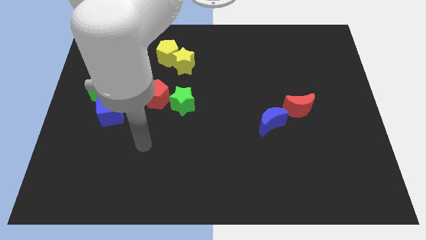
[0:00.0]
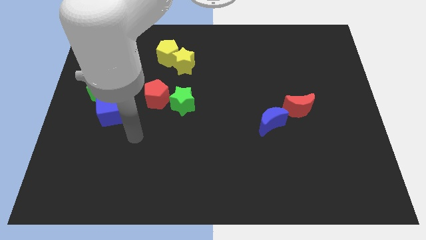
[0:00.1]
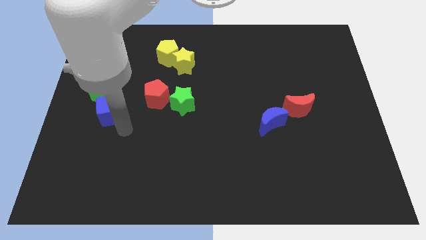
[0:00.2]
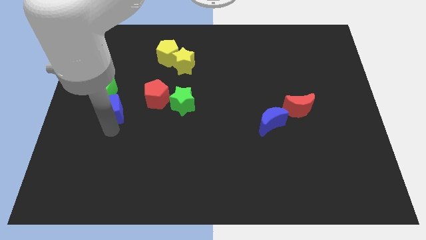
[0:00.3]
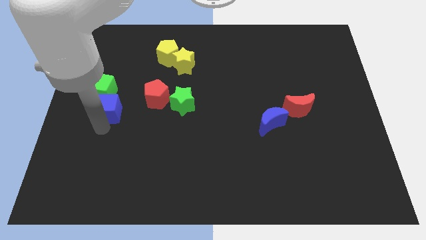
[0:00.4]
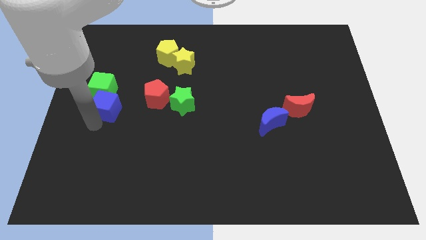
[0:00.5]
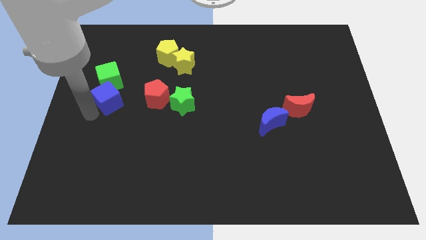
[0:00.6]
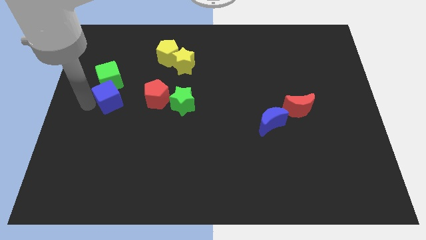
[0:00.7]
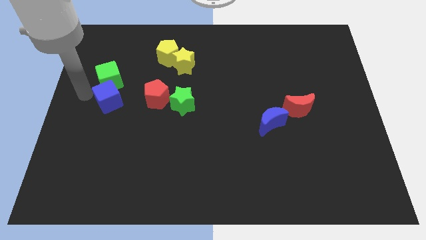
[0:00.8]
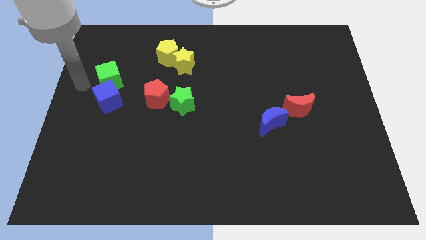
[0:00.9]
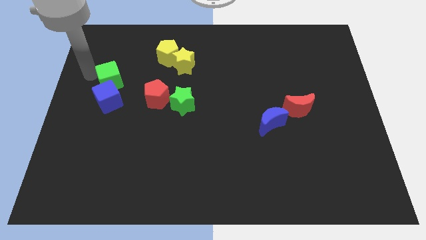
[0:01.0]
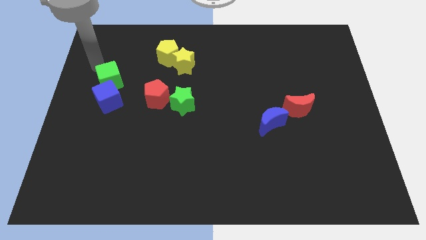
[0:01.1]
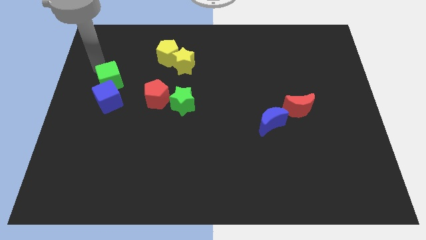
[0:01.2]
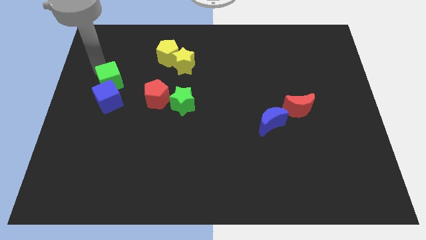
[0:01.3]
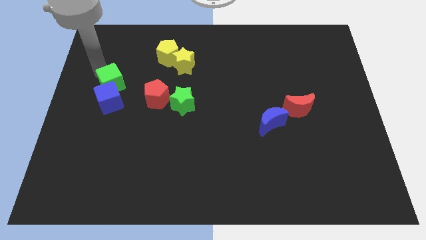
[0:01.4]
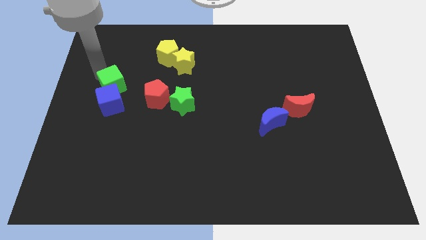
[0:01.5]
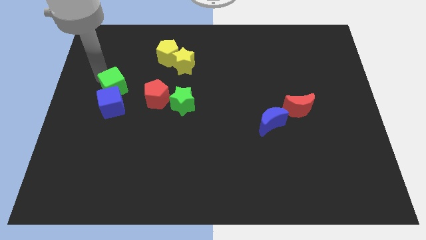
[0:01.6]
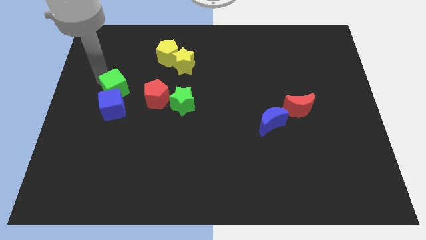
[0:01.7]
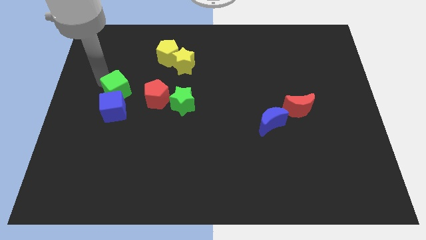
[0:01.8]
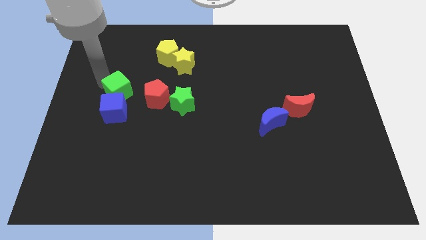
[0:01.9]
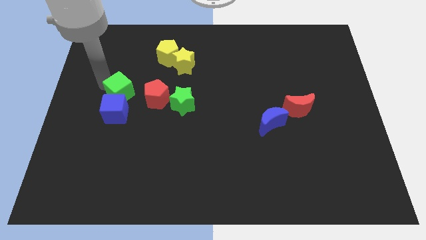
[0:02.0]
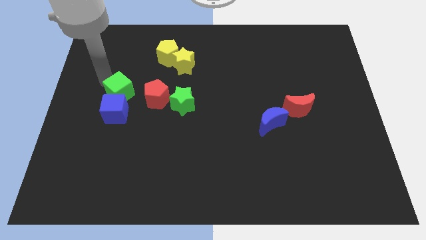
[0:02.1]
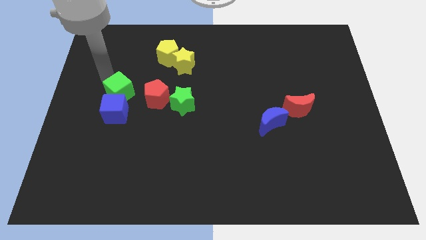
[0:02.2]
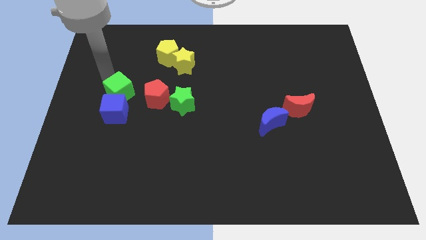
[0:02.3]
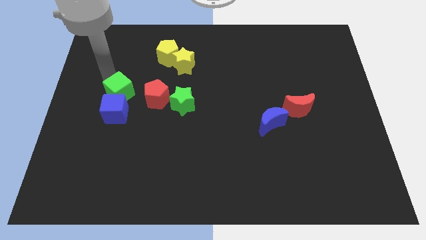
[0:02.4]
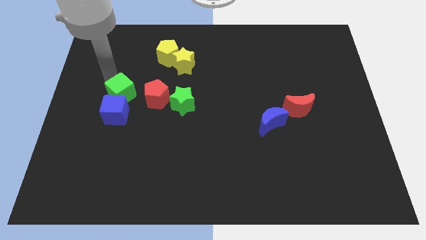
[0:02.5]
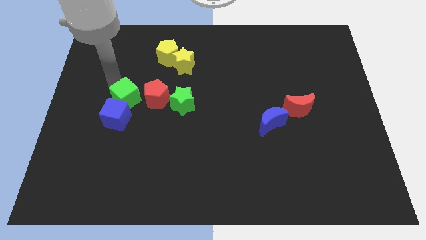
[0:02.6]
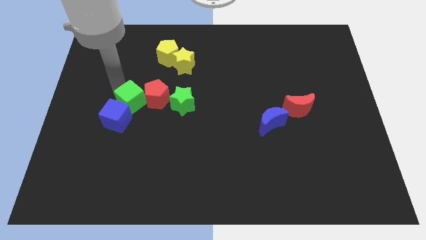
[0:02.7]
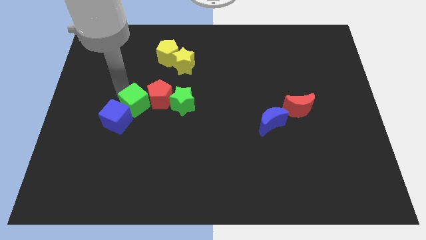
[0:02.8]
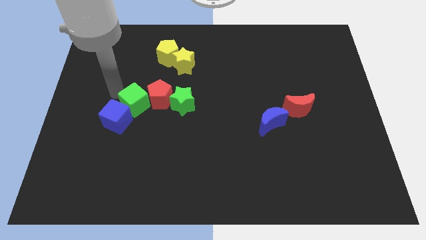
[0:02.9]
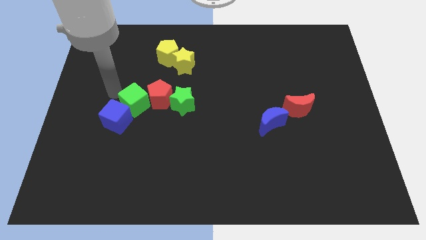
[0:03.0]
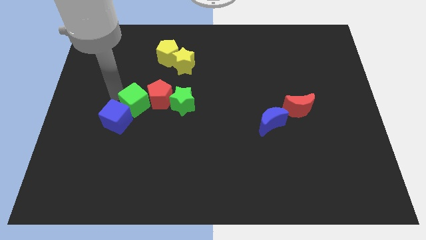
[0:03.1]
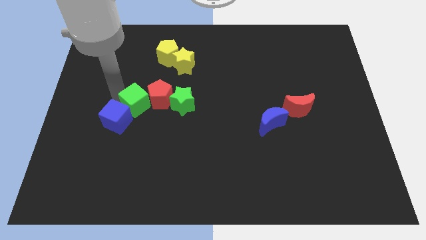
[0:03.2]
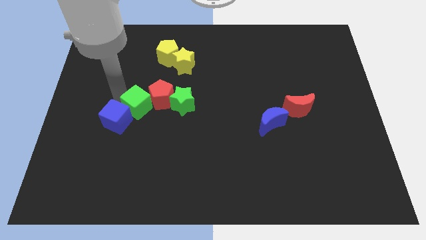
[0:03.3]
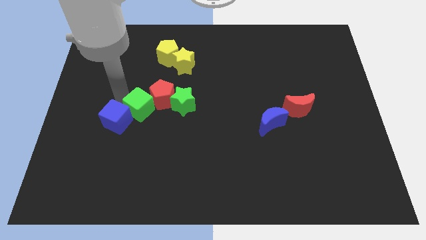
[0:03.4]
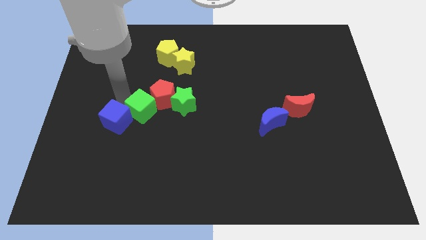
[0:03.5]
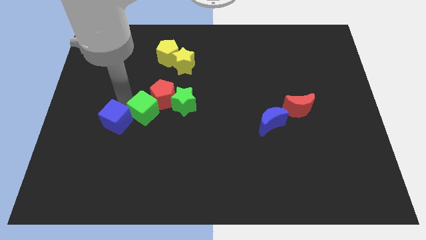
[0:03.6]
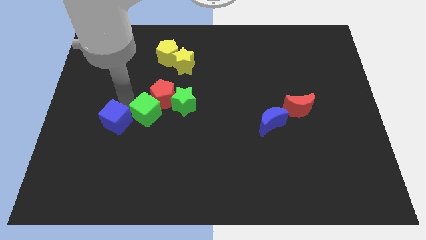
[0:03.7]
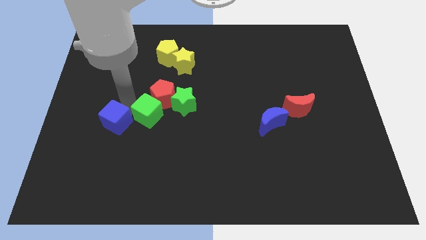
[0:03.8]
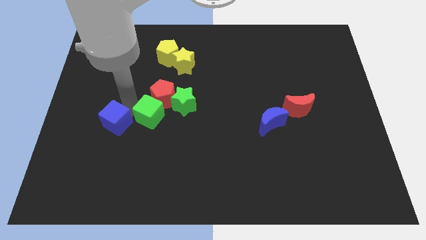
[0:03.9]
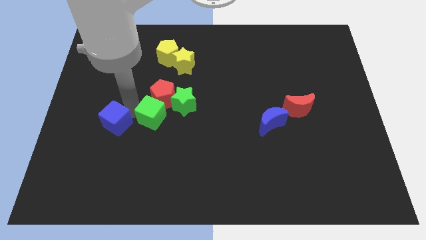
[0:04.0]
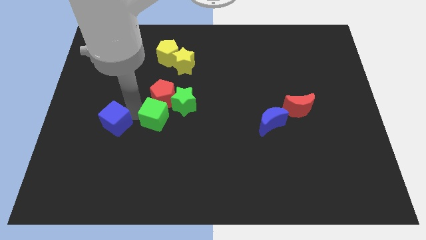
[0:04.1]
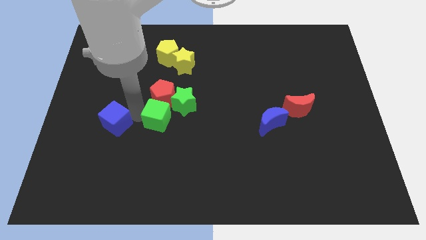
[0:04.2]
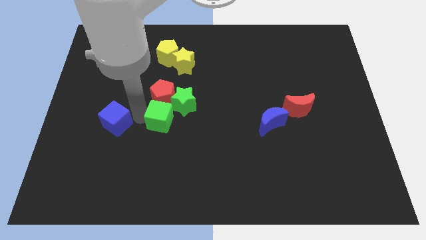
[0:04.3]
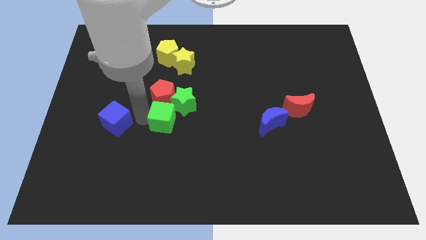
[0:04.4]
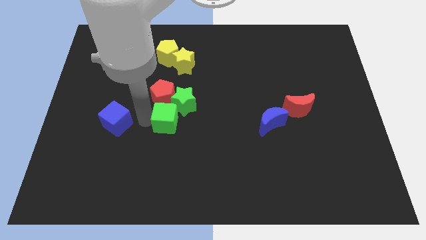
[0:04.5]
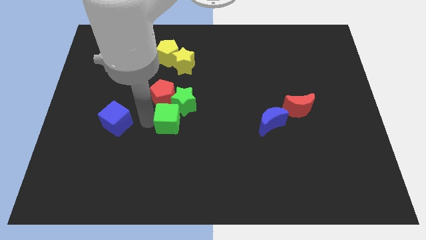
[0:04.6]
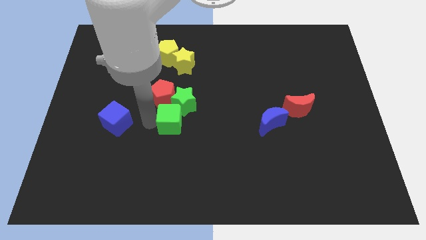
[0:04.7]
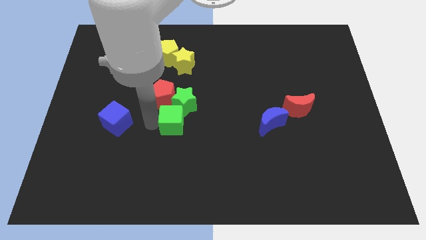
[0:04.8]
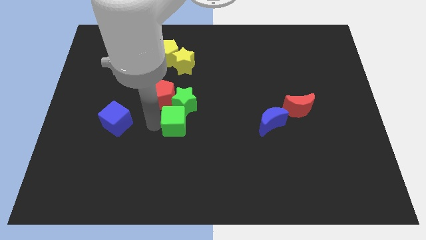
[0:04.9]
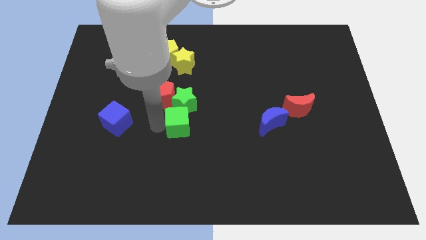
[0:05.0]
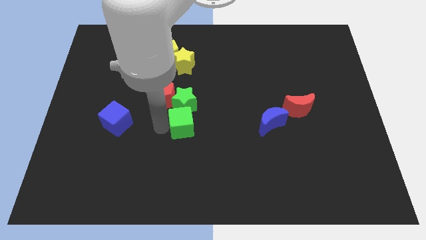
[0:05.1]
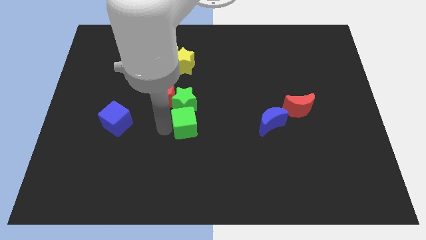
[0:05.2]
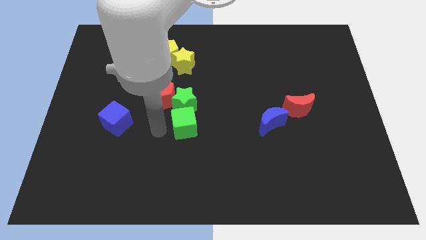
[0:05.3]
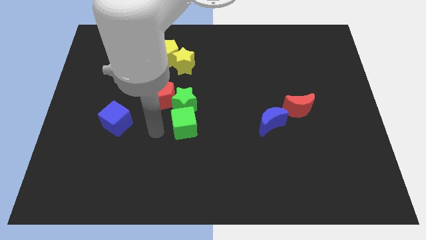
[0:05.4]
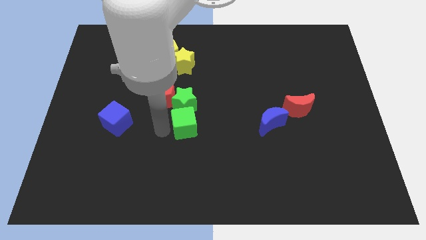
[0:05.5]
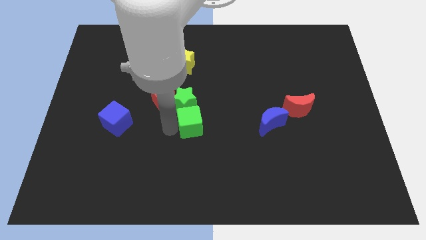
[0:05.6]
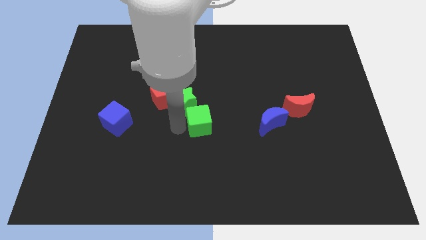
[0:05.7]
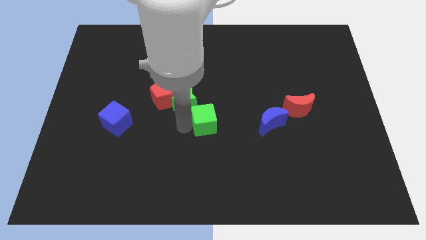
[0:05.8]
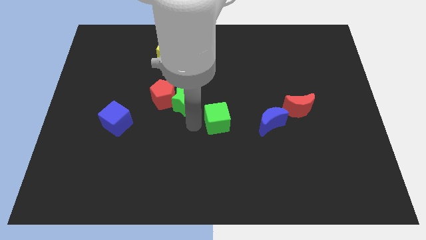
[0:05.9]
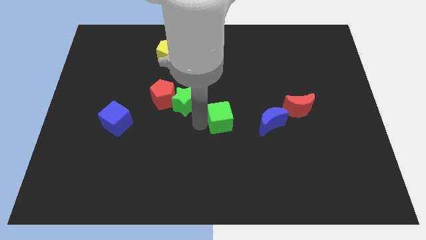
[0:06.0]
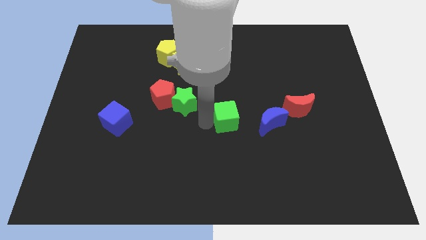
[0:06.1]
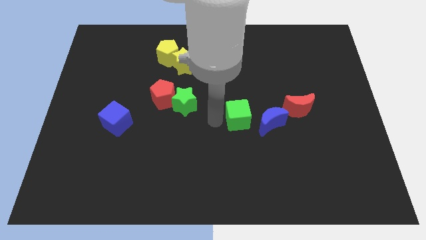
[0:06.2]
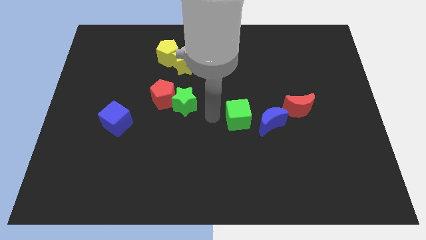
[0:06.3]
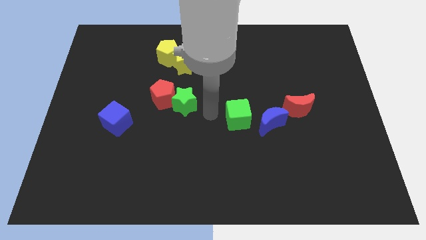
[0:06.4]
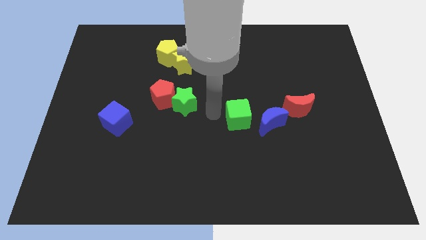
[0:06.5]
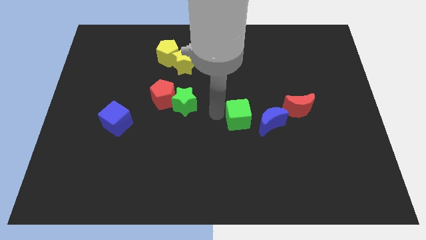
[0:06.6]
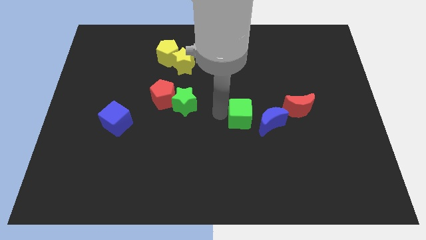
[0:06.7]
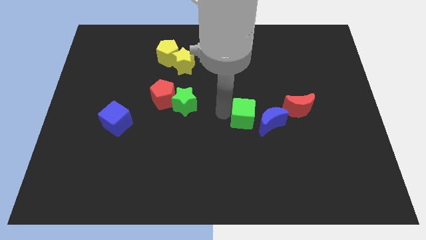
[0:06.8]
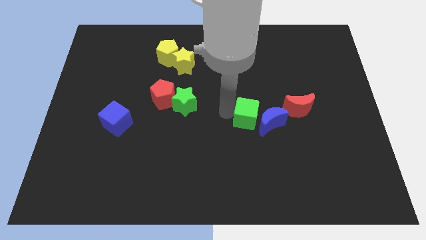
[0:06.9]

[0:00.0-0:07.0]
put the green cube next to the blue moon

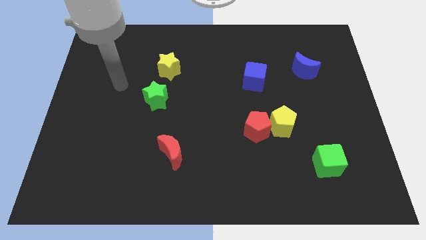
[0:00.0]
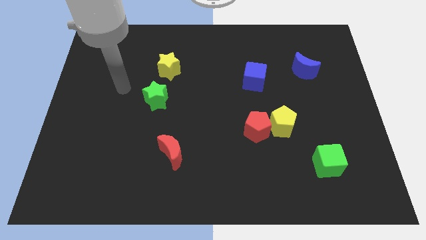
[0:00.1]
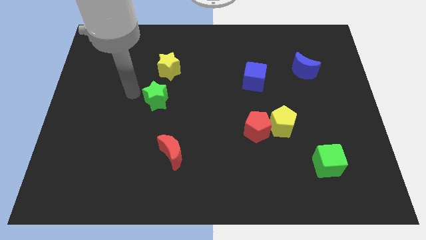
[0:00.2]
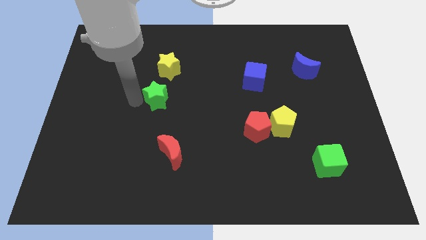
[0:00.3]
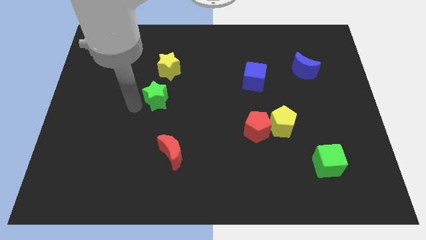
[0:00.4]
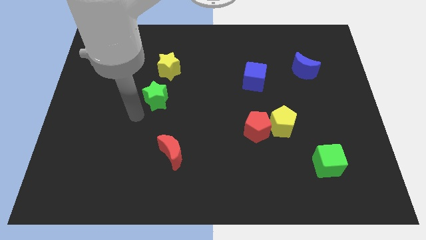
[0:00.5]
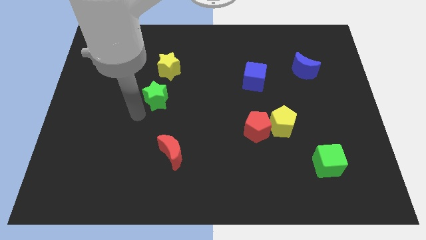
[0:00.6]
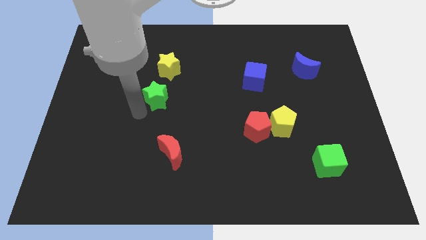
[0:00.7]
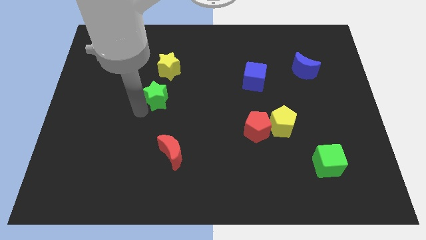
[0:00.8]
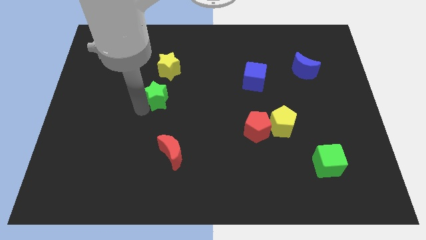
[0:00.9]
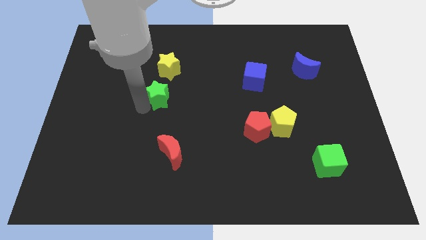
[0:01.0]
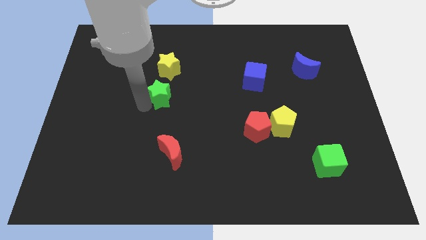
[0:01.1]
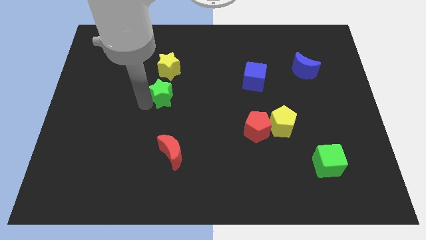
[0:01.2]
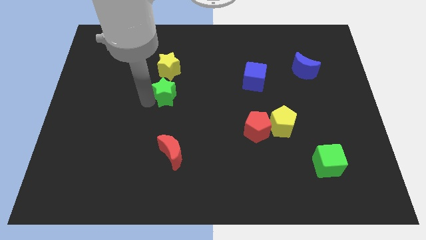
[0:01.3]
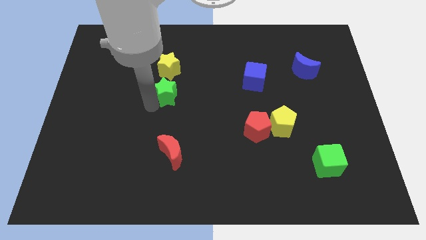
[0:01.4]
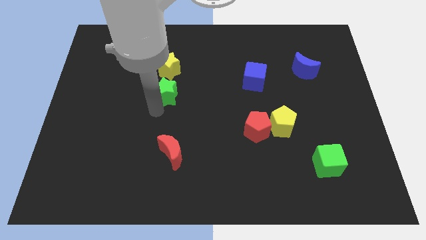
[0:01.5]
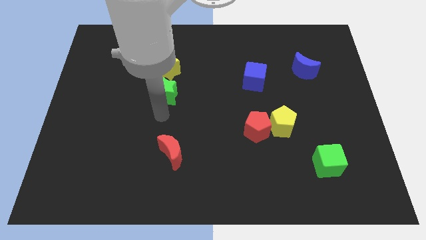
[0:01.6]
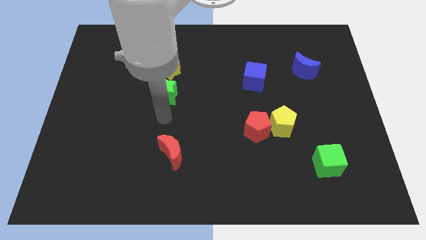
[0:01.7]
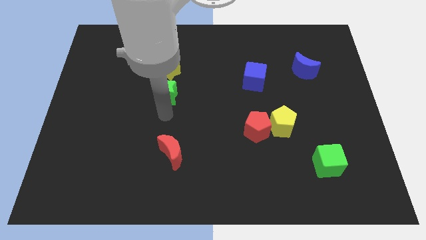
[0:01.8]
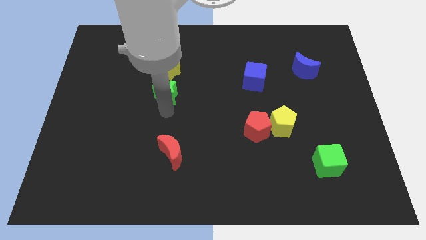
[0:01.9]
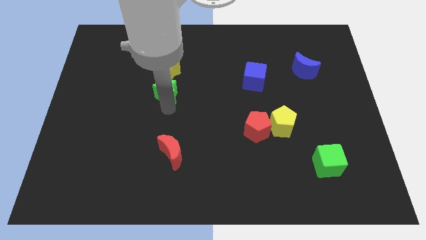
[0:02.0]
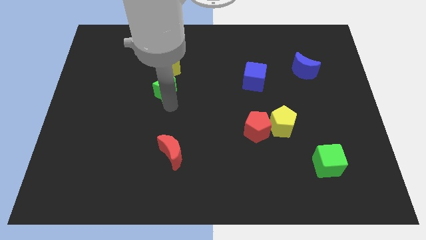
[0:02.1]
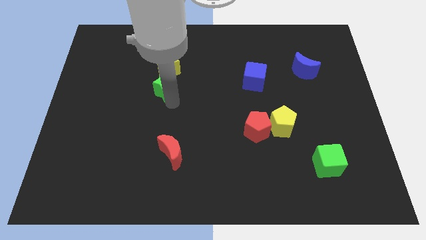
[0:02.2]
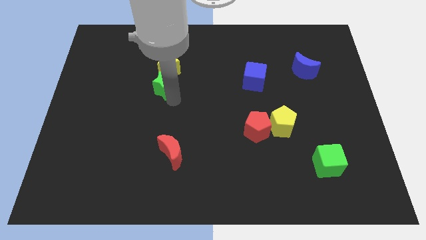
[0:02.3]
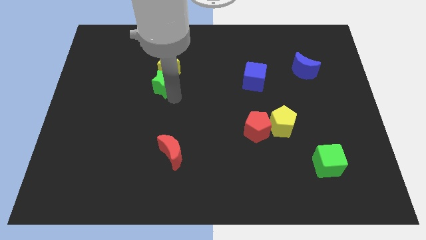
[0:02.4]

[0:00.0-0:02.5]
put the green star close to the yellow star
